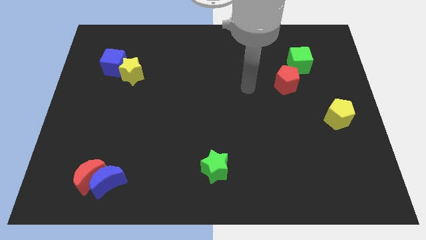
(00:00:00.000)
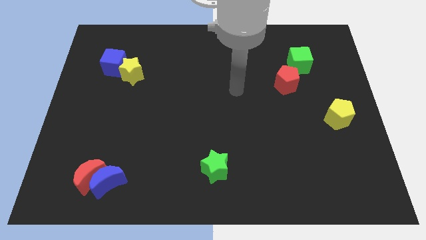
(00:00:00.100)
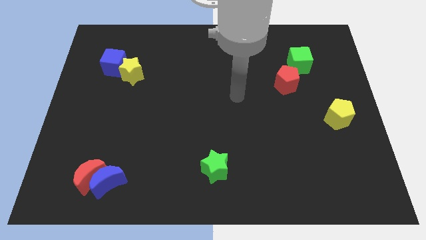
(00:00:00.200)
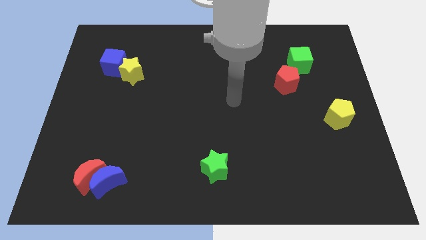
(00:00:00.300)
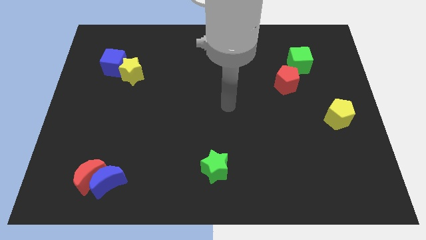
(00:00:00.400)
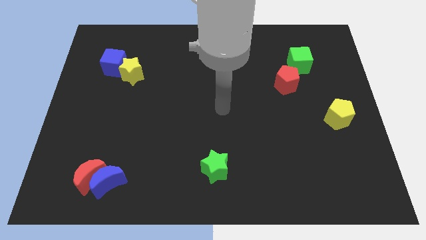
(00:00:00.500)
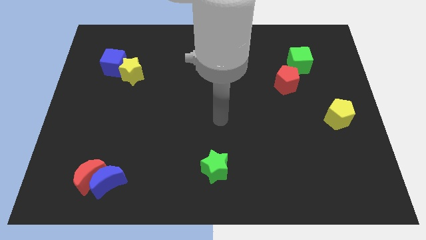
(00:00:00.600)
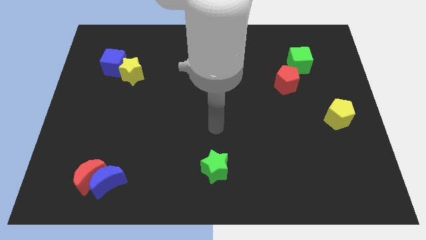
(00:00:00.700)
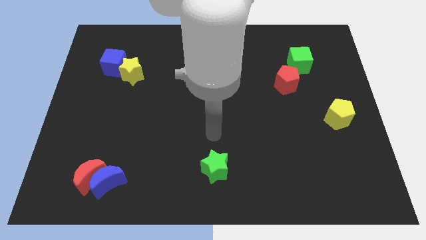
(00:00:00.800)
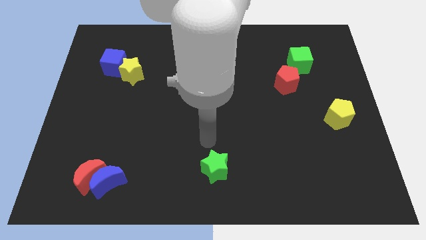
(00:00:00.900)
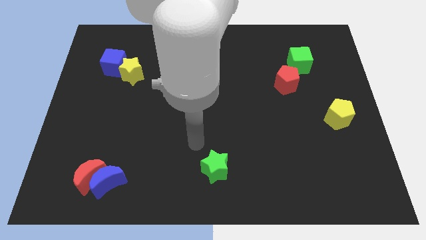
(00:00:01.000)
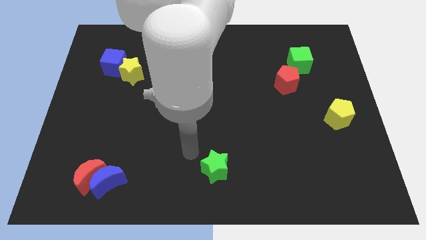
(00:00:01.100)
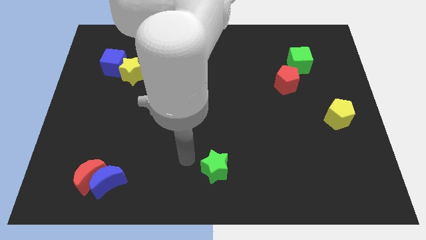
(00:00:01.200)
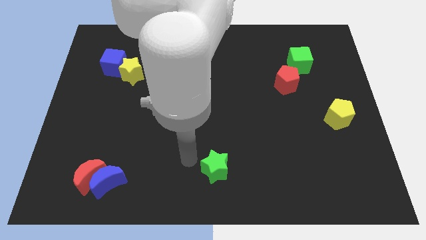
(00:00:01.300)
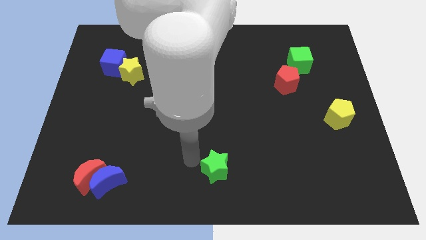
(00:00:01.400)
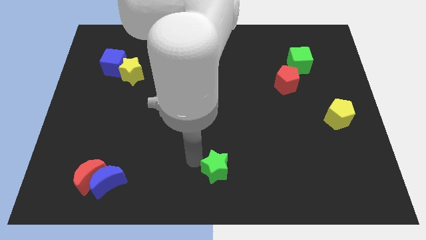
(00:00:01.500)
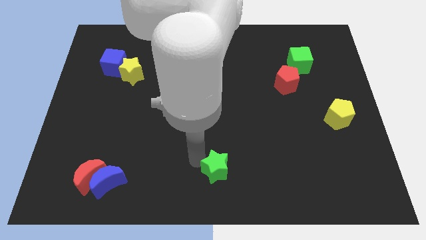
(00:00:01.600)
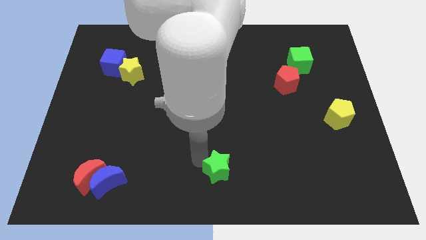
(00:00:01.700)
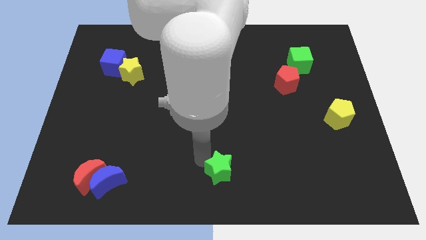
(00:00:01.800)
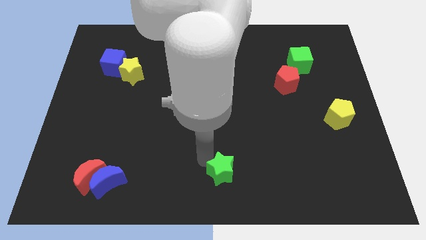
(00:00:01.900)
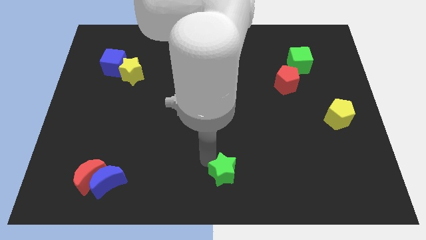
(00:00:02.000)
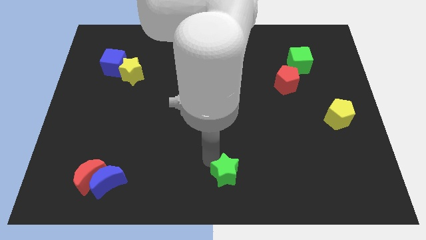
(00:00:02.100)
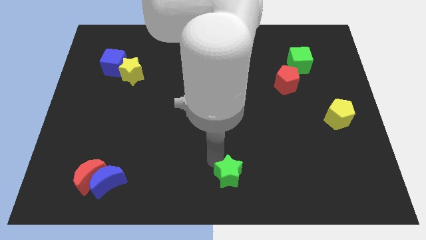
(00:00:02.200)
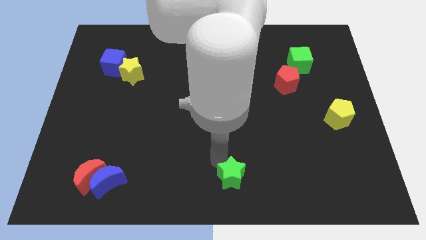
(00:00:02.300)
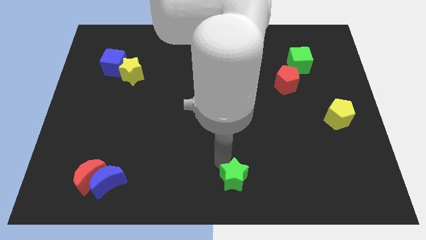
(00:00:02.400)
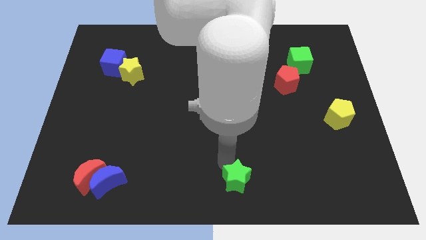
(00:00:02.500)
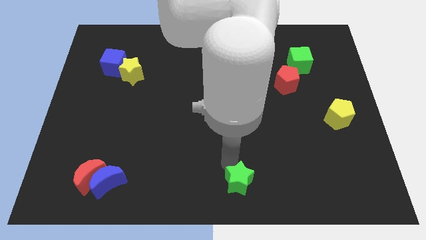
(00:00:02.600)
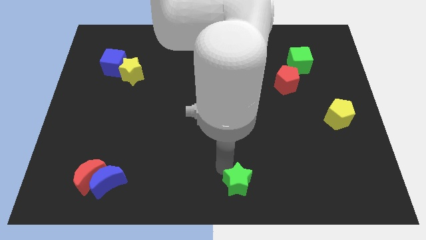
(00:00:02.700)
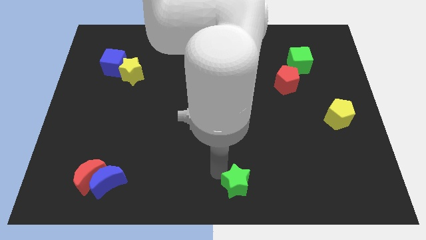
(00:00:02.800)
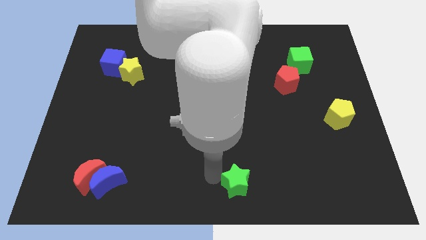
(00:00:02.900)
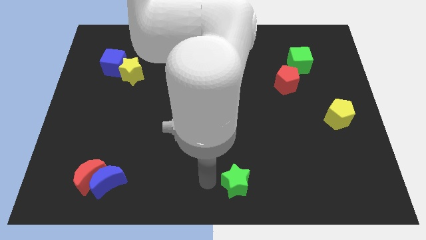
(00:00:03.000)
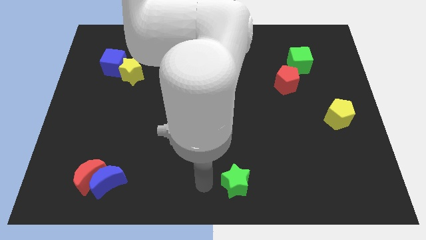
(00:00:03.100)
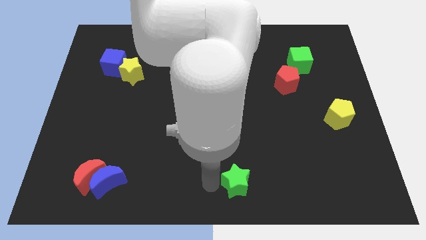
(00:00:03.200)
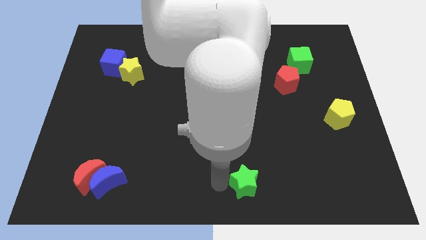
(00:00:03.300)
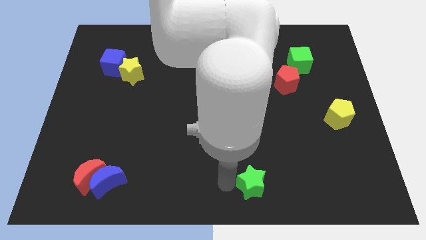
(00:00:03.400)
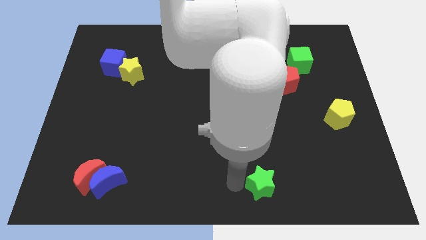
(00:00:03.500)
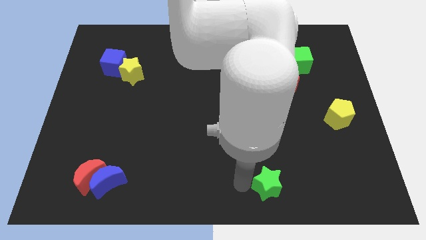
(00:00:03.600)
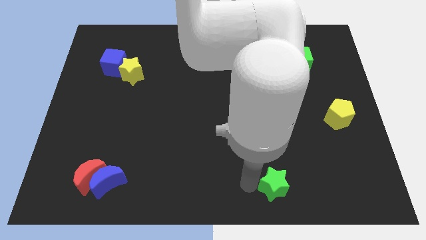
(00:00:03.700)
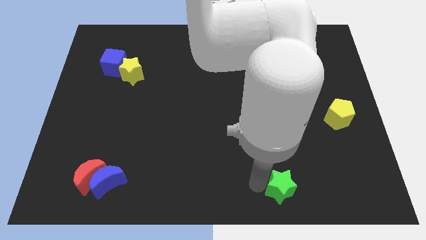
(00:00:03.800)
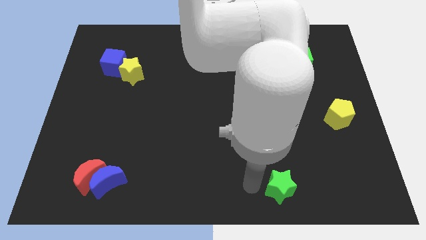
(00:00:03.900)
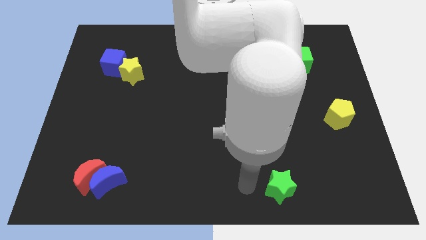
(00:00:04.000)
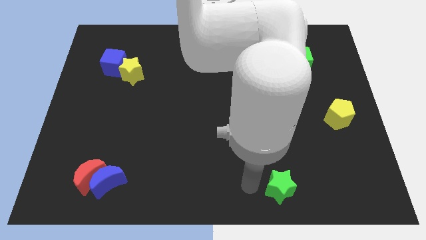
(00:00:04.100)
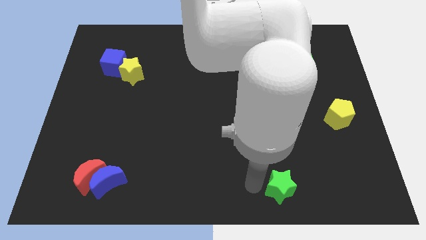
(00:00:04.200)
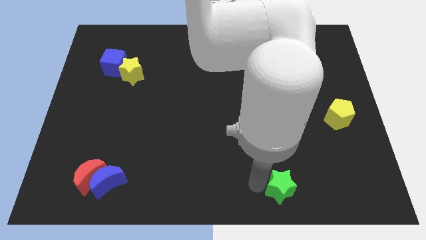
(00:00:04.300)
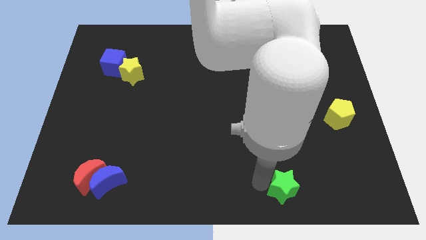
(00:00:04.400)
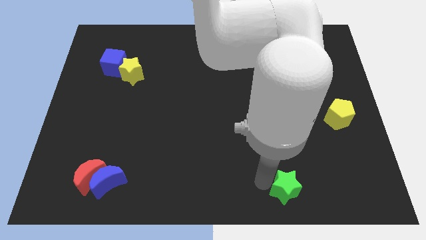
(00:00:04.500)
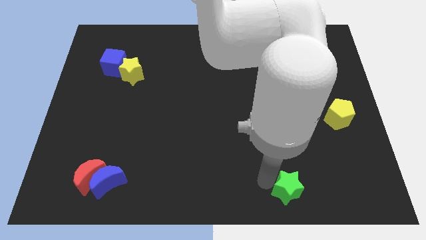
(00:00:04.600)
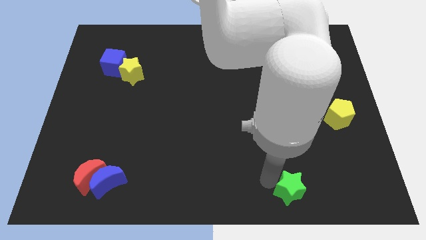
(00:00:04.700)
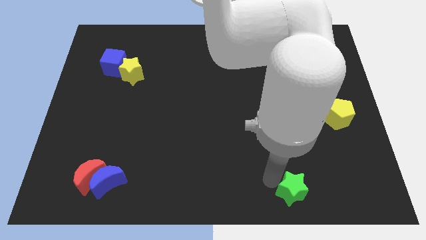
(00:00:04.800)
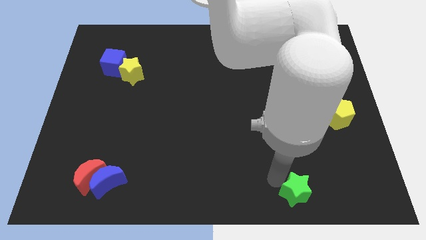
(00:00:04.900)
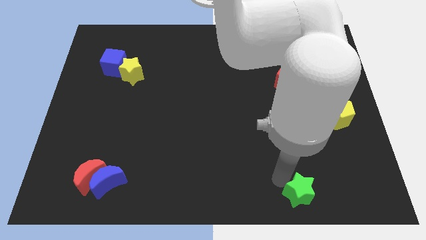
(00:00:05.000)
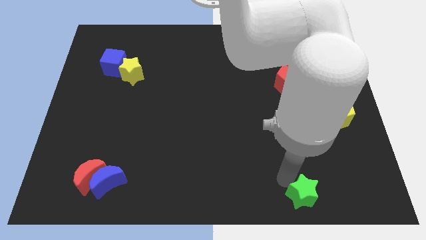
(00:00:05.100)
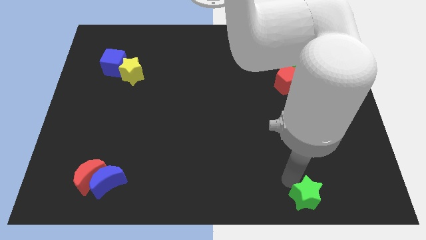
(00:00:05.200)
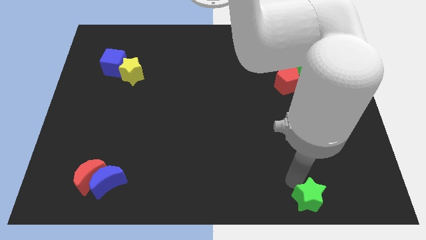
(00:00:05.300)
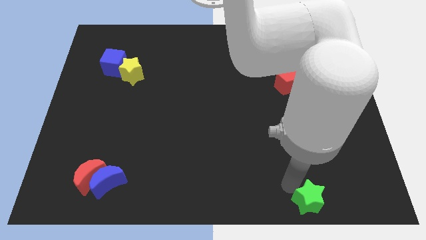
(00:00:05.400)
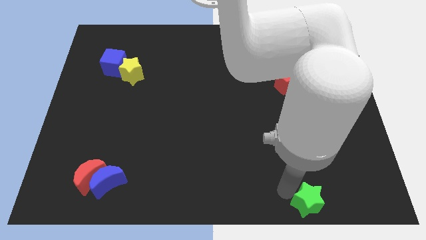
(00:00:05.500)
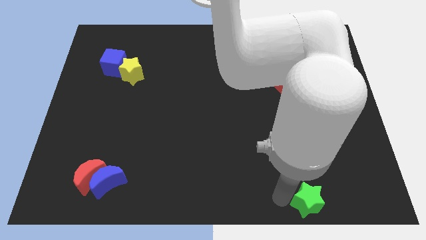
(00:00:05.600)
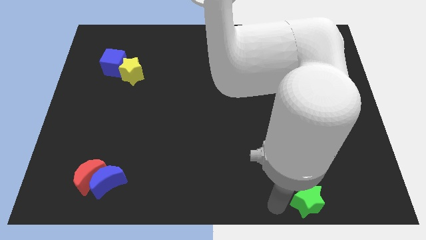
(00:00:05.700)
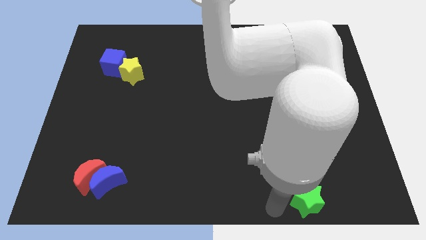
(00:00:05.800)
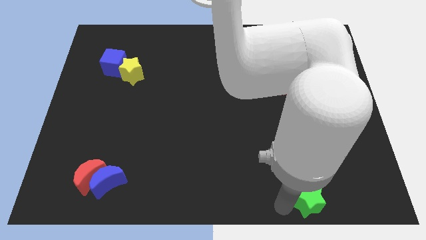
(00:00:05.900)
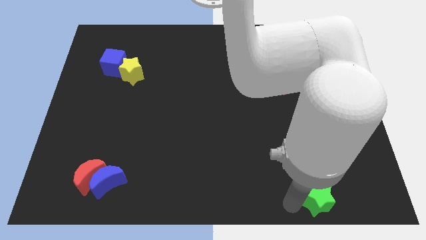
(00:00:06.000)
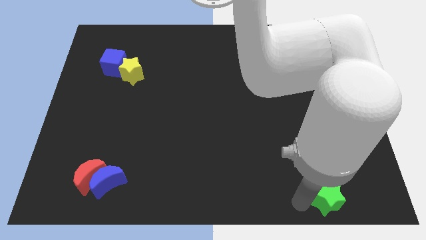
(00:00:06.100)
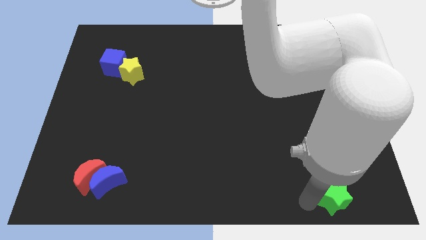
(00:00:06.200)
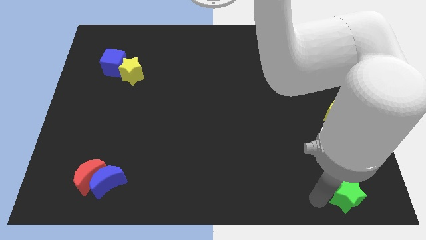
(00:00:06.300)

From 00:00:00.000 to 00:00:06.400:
move the green star to the lower right corner

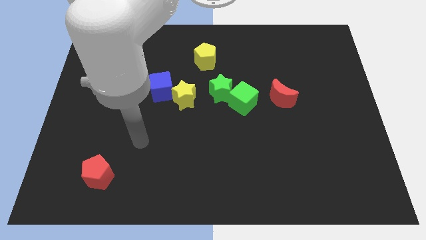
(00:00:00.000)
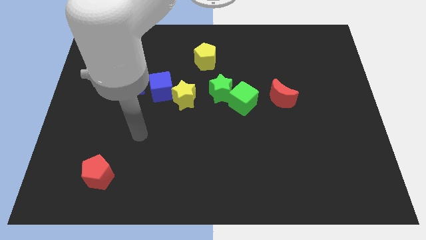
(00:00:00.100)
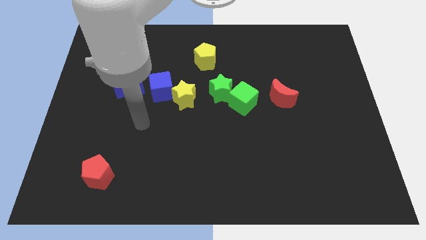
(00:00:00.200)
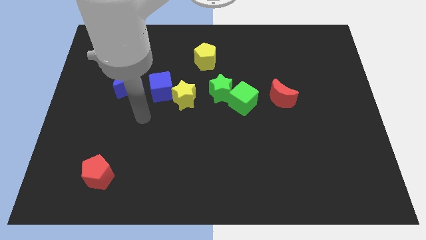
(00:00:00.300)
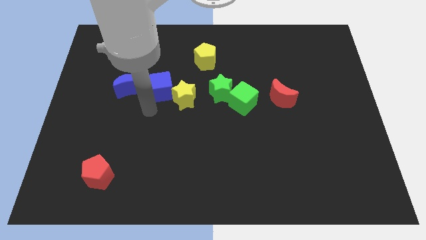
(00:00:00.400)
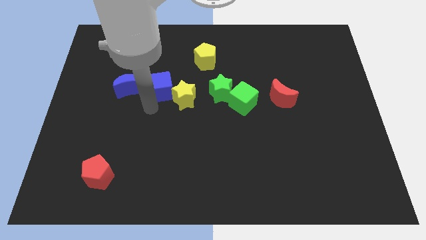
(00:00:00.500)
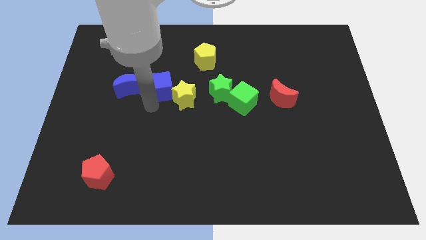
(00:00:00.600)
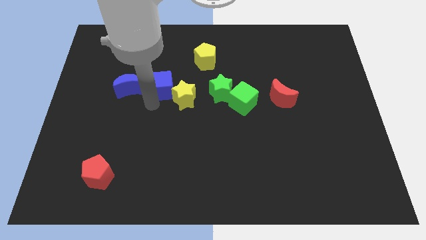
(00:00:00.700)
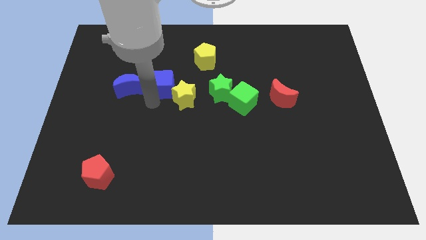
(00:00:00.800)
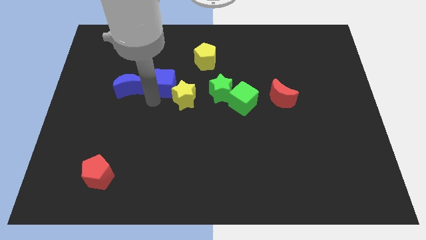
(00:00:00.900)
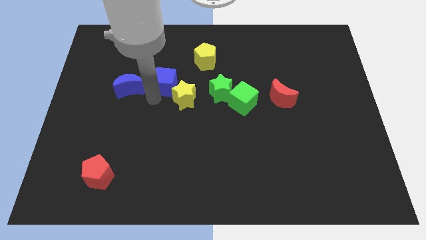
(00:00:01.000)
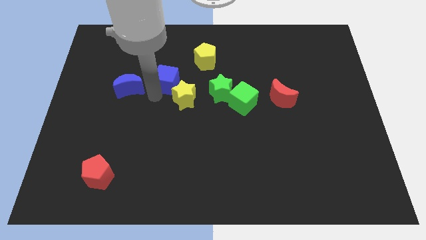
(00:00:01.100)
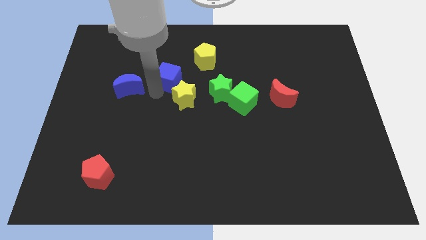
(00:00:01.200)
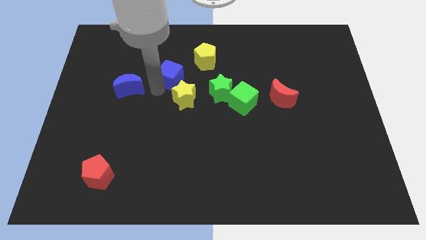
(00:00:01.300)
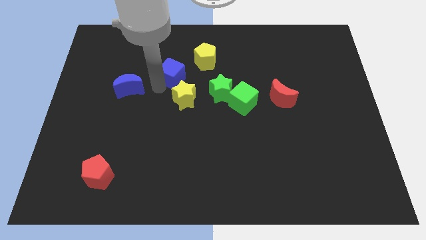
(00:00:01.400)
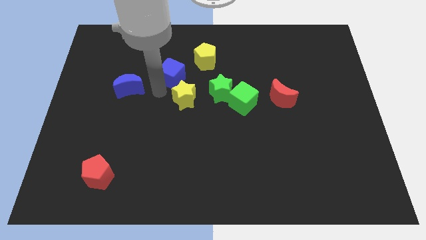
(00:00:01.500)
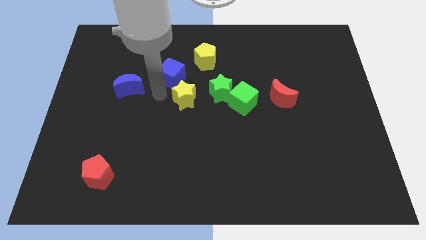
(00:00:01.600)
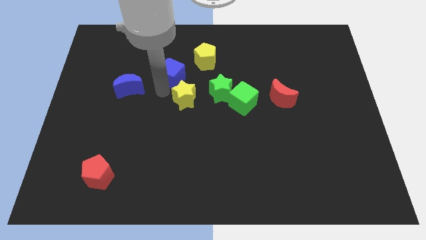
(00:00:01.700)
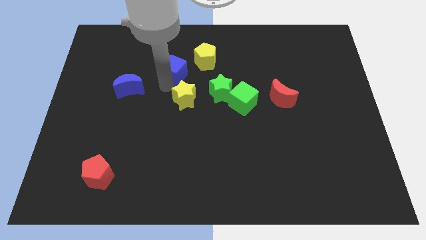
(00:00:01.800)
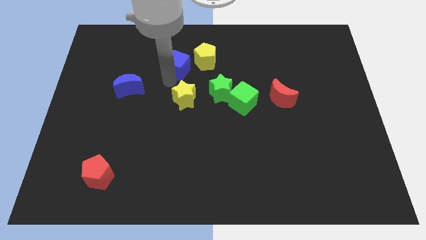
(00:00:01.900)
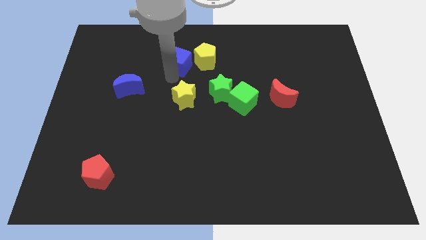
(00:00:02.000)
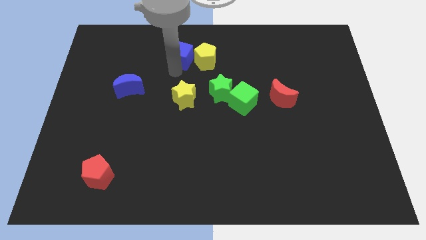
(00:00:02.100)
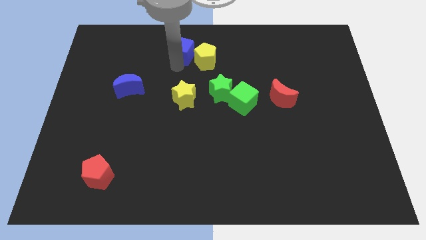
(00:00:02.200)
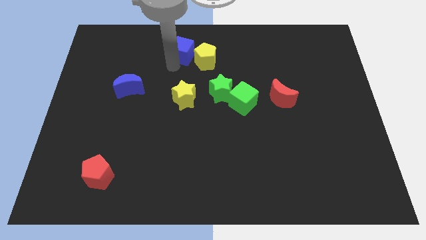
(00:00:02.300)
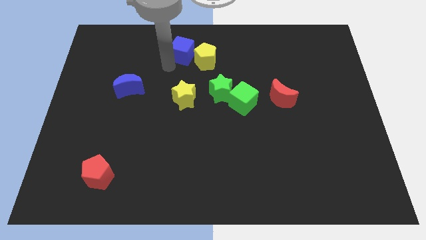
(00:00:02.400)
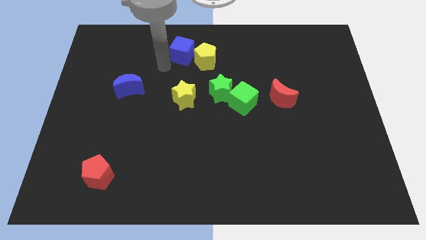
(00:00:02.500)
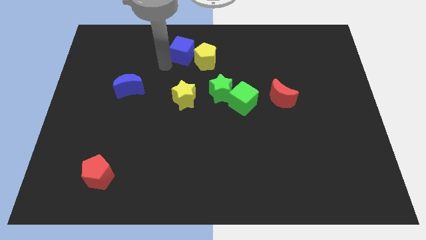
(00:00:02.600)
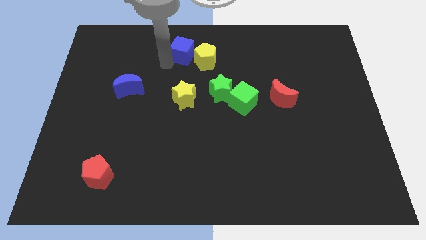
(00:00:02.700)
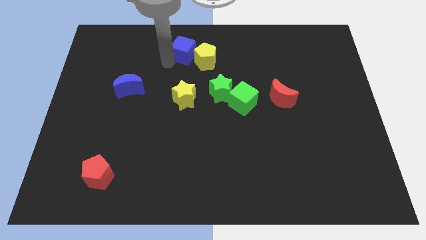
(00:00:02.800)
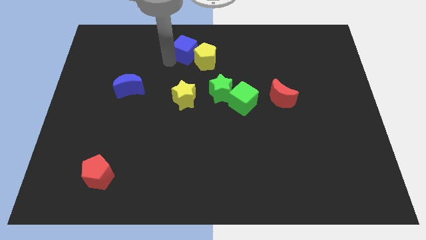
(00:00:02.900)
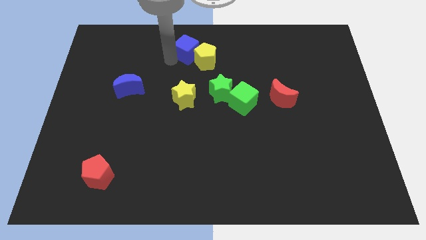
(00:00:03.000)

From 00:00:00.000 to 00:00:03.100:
move the blue cube to the top
